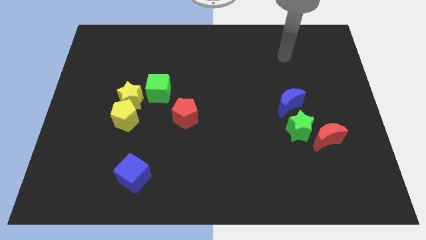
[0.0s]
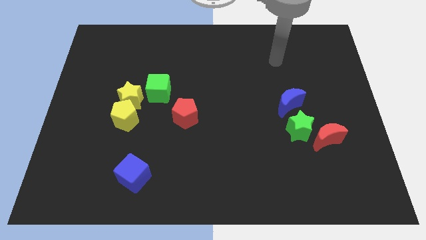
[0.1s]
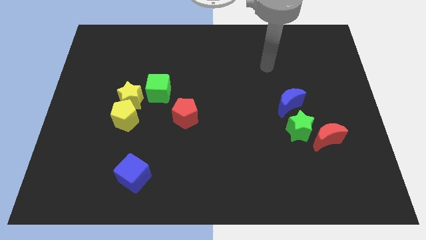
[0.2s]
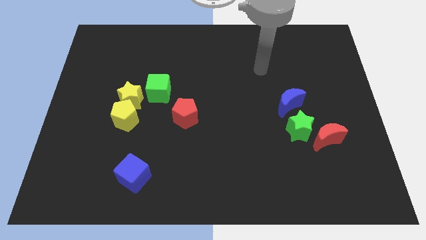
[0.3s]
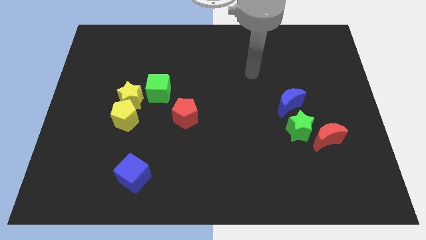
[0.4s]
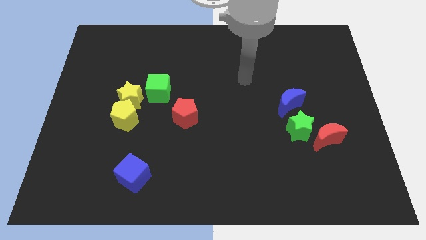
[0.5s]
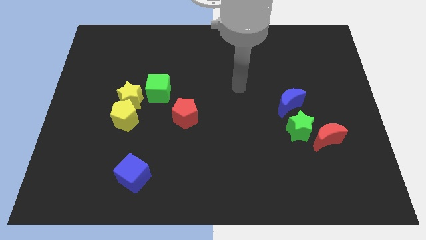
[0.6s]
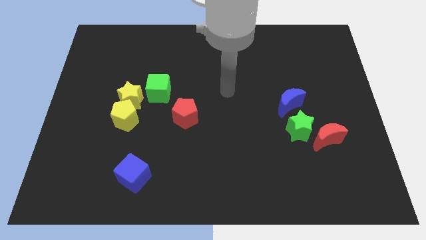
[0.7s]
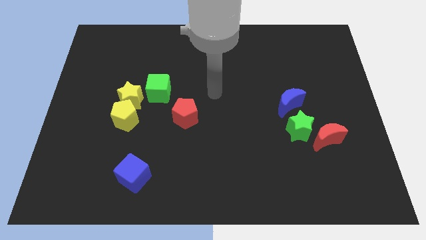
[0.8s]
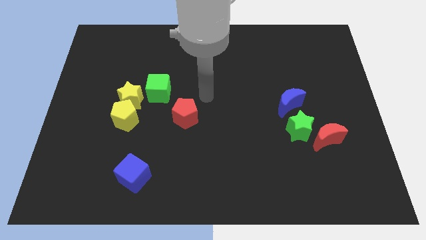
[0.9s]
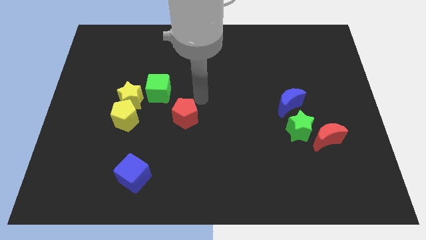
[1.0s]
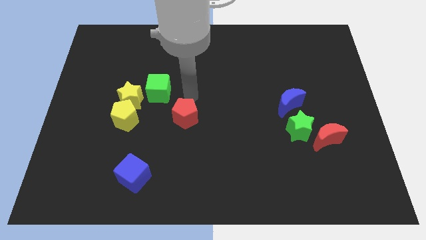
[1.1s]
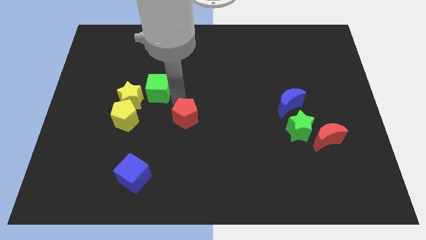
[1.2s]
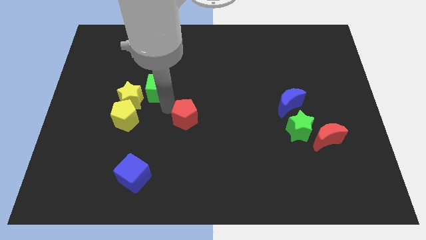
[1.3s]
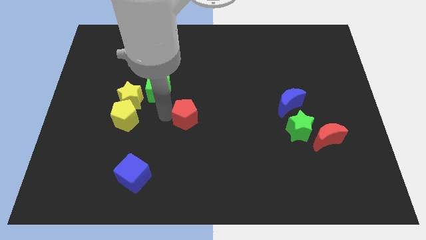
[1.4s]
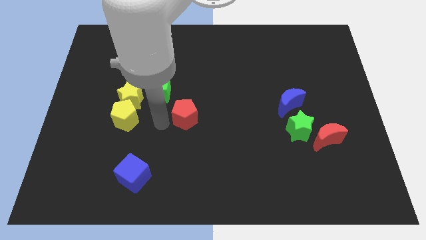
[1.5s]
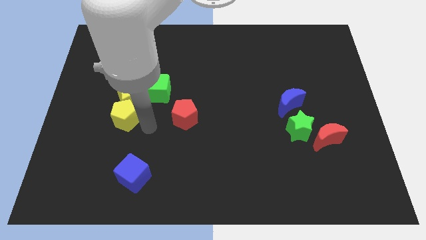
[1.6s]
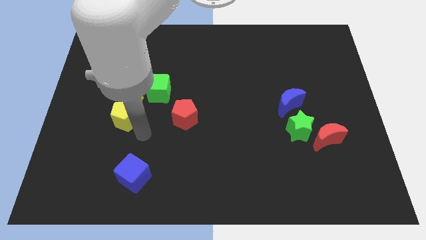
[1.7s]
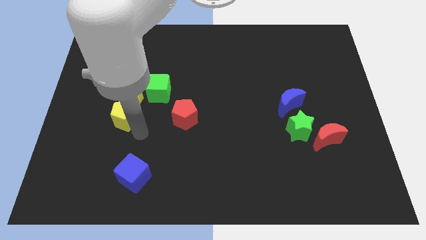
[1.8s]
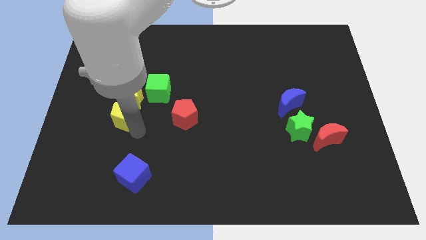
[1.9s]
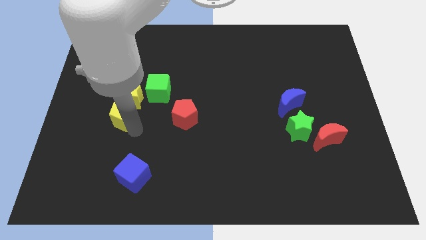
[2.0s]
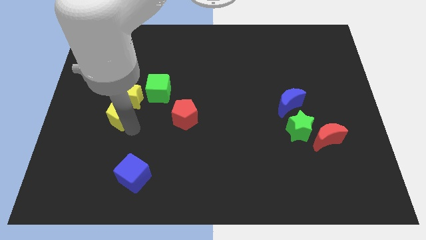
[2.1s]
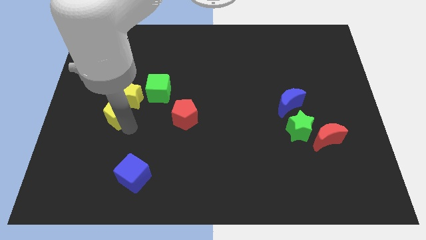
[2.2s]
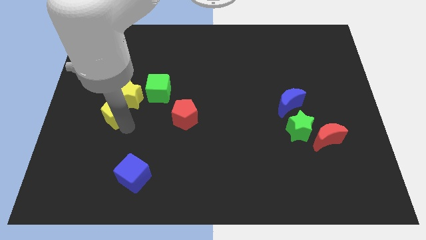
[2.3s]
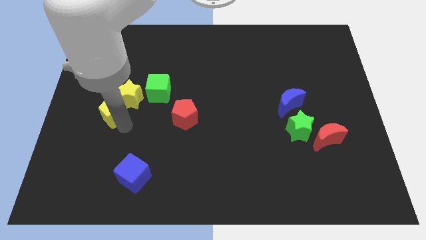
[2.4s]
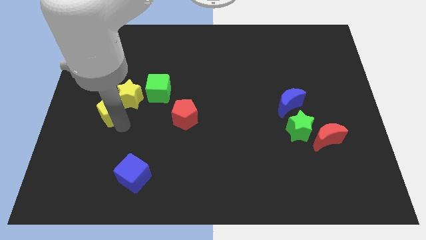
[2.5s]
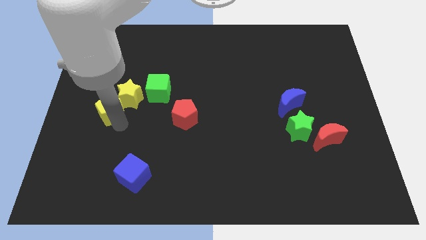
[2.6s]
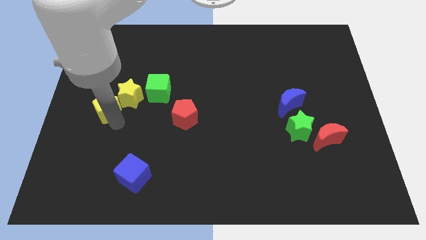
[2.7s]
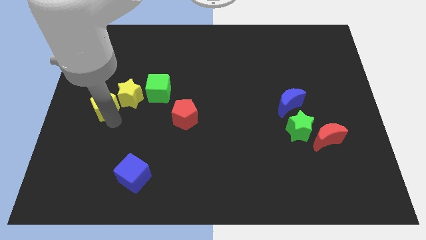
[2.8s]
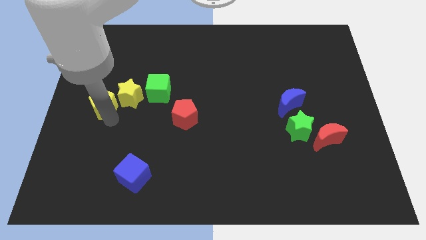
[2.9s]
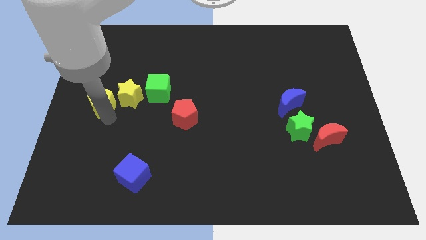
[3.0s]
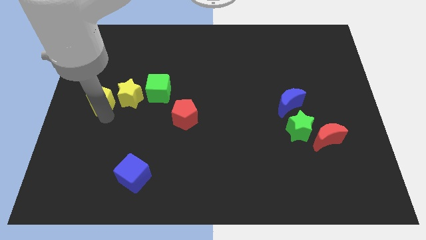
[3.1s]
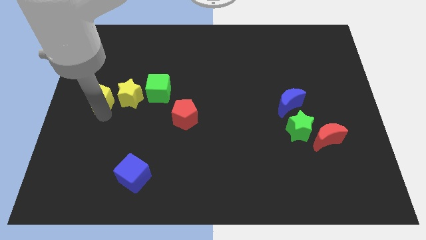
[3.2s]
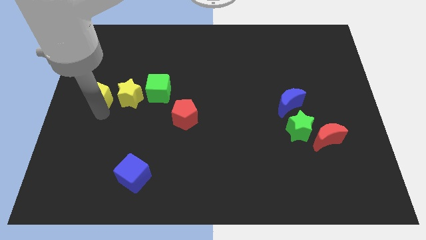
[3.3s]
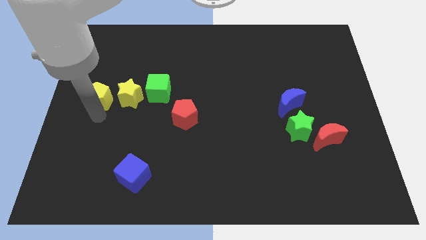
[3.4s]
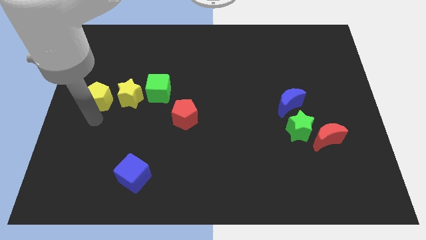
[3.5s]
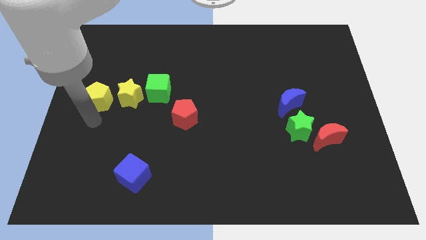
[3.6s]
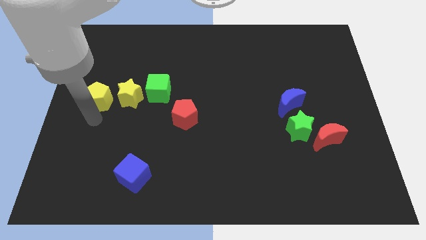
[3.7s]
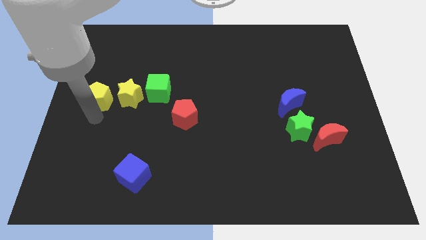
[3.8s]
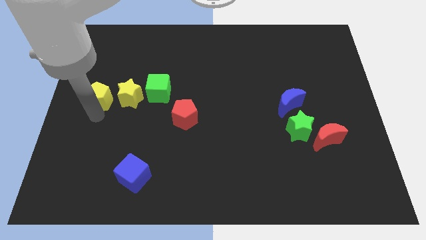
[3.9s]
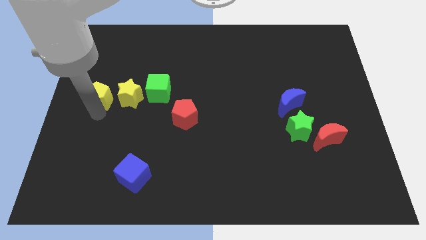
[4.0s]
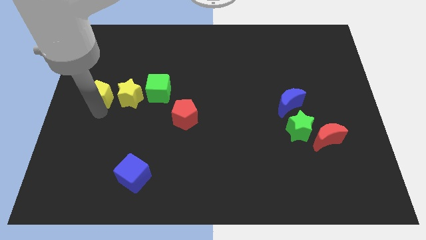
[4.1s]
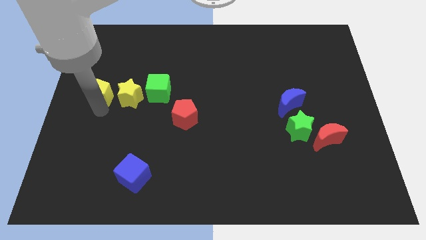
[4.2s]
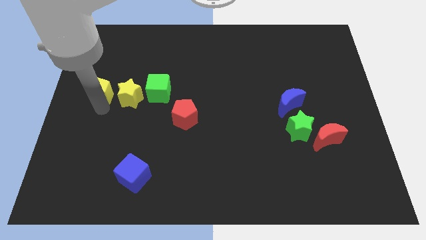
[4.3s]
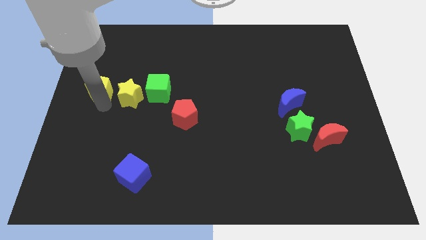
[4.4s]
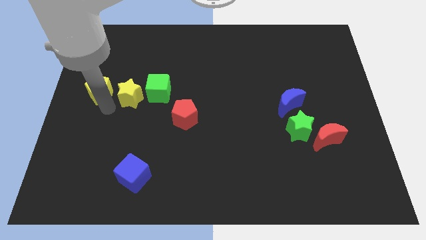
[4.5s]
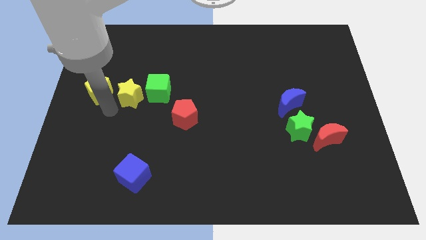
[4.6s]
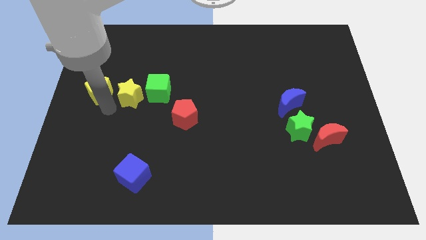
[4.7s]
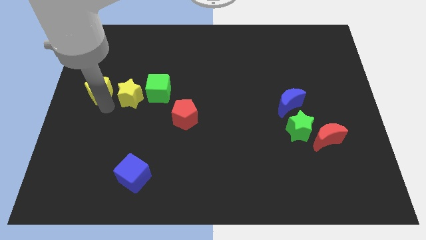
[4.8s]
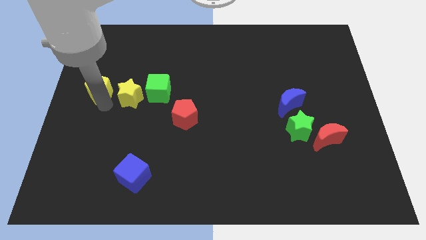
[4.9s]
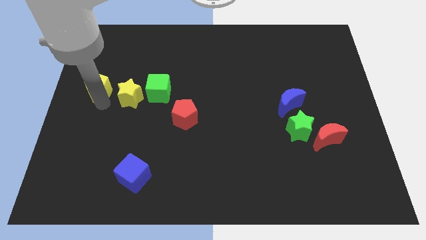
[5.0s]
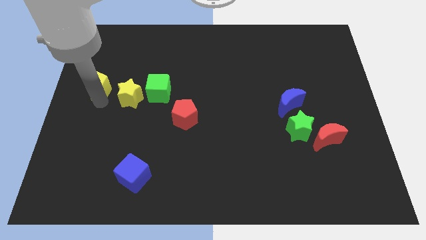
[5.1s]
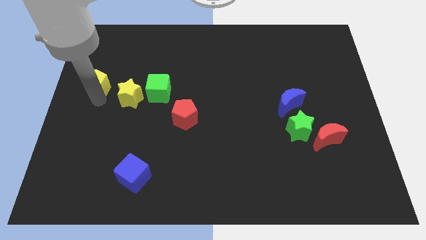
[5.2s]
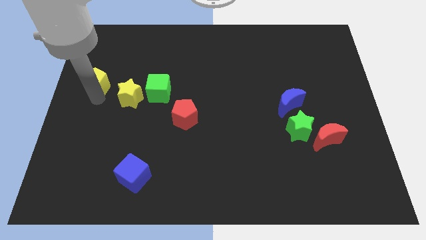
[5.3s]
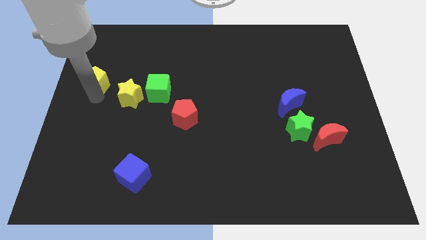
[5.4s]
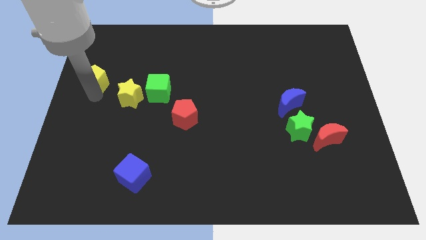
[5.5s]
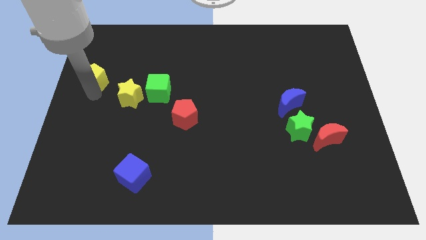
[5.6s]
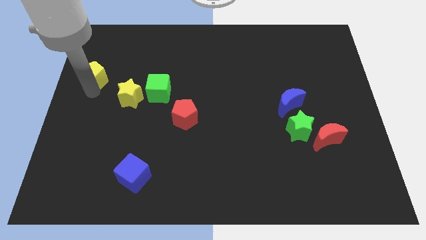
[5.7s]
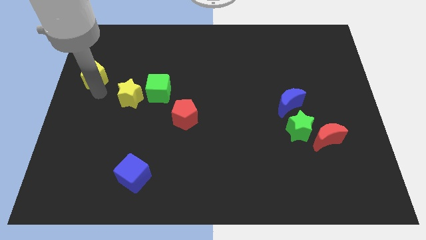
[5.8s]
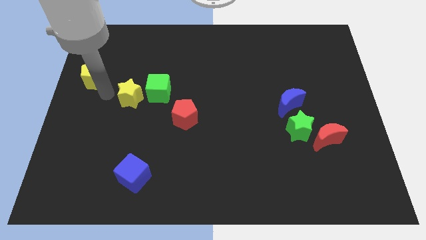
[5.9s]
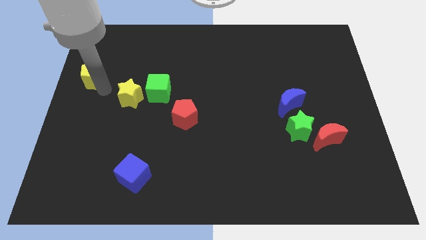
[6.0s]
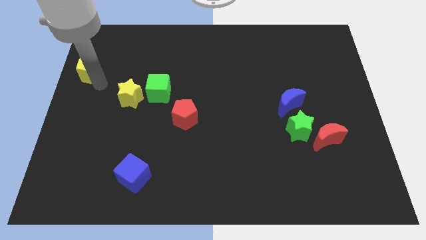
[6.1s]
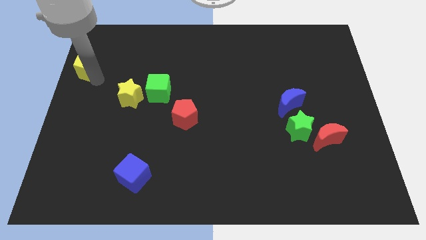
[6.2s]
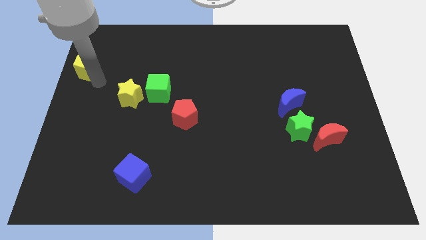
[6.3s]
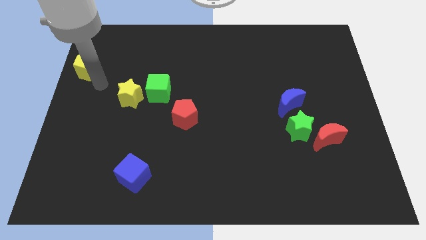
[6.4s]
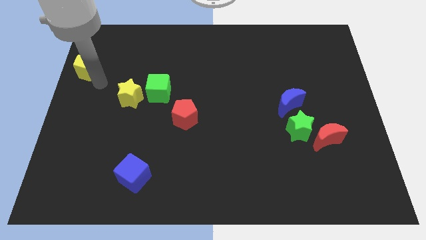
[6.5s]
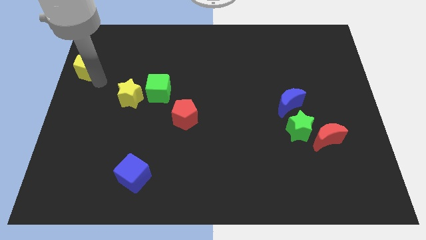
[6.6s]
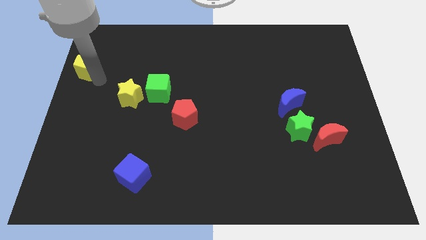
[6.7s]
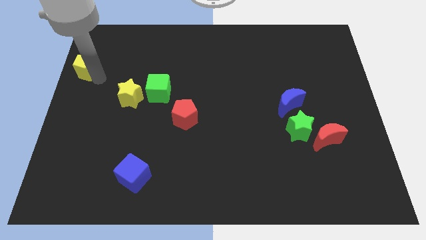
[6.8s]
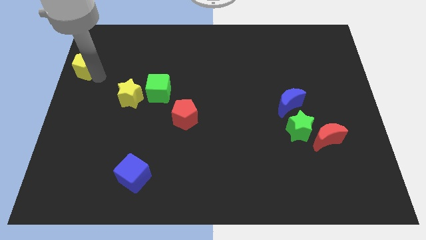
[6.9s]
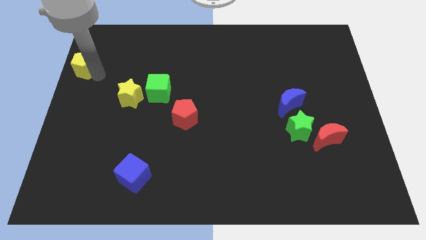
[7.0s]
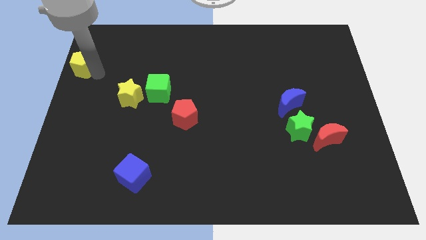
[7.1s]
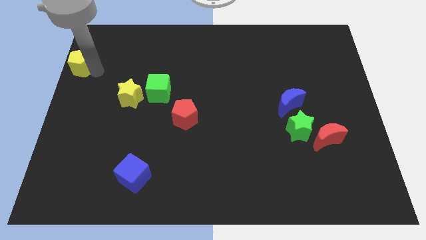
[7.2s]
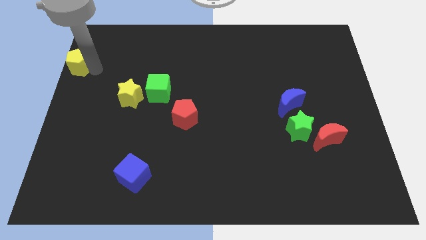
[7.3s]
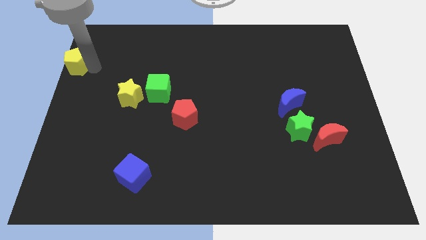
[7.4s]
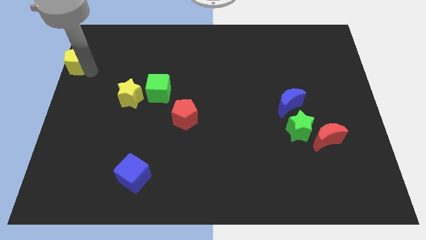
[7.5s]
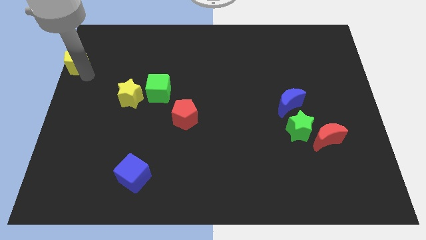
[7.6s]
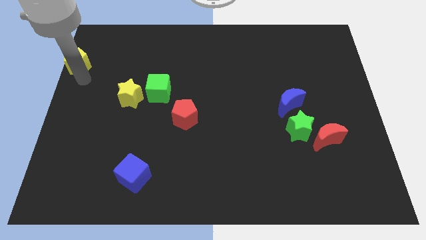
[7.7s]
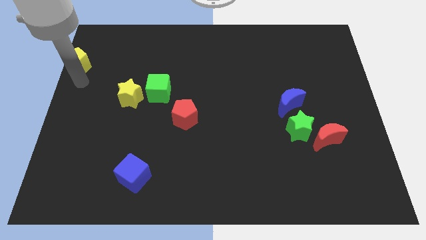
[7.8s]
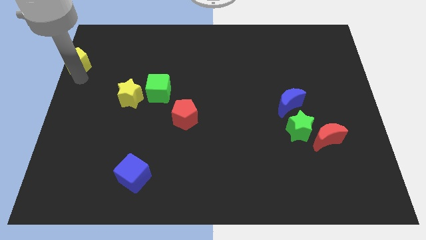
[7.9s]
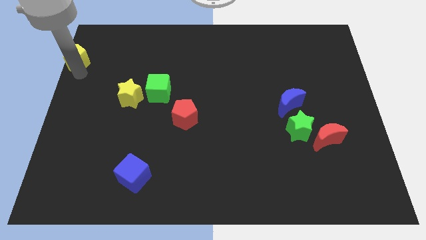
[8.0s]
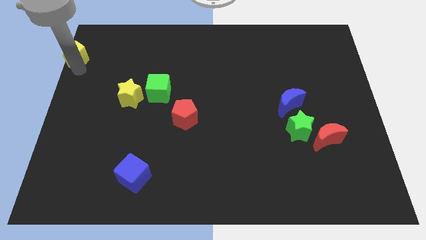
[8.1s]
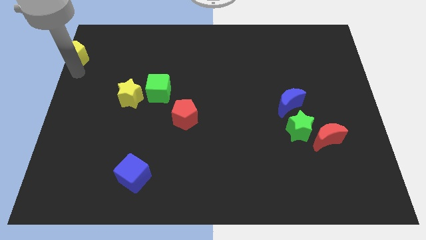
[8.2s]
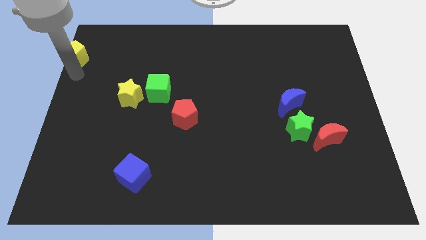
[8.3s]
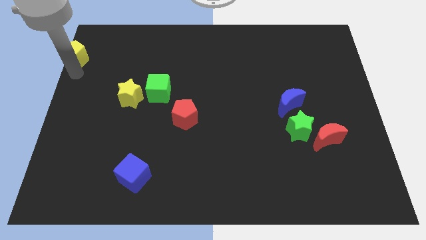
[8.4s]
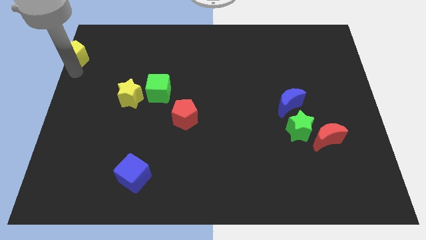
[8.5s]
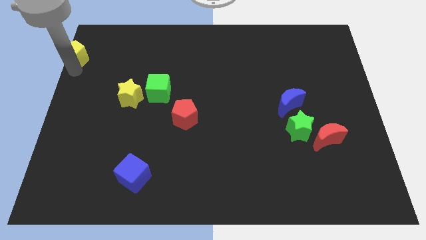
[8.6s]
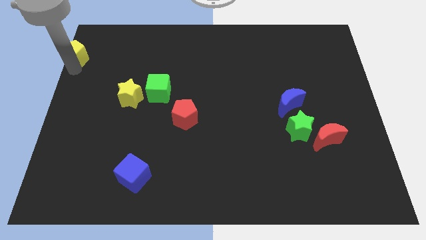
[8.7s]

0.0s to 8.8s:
move the yellow pentagon to the top left corner
